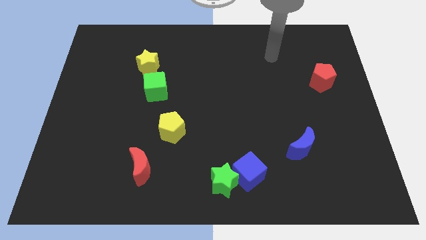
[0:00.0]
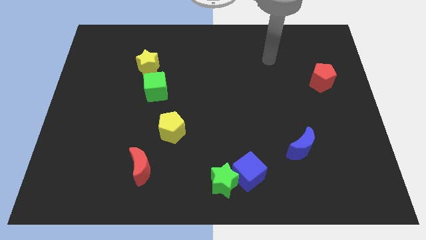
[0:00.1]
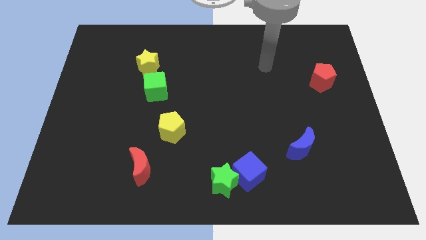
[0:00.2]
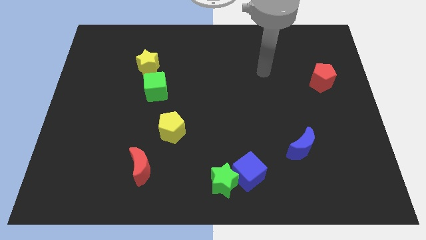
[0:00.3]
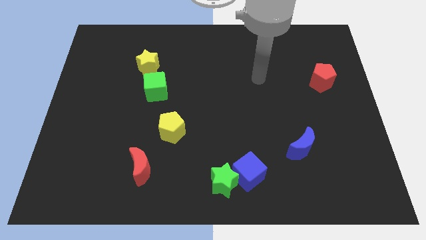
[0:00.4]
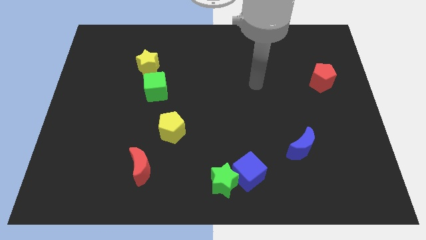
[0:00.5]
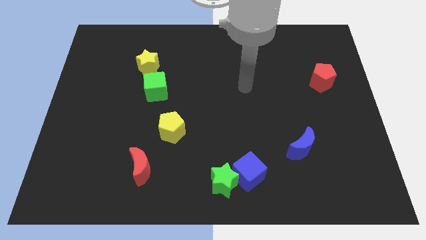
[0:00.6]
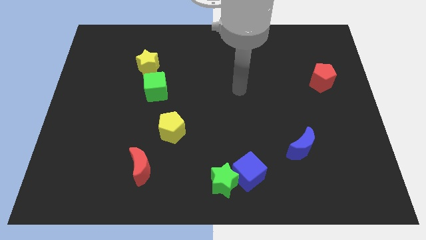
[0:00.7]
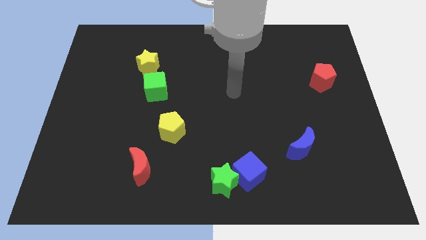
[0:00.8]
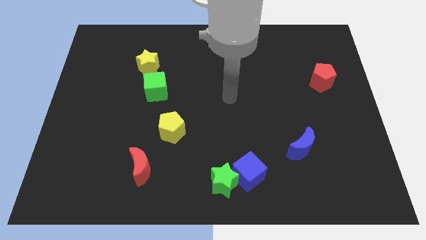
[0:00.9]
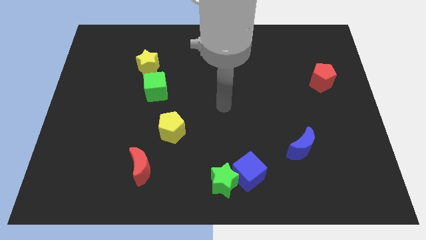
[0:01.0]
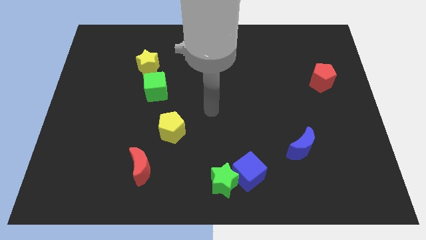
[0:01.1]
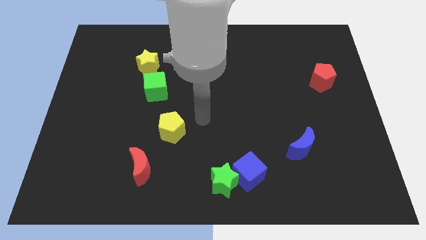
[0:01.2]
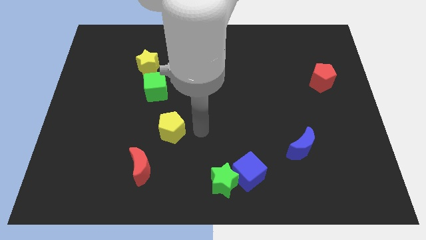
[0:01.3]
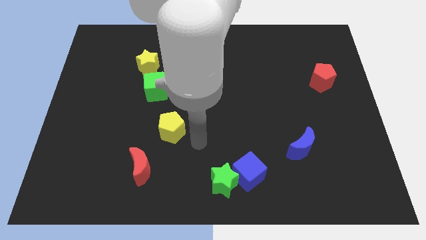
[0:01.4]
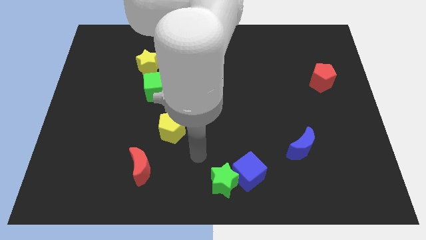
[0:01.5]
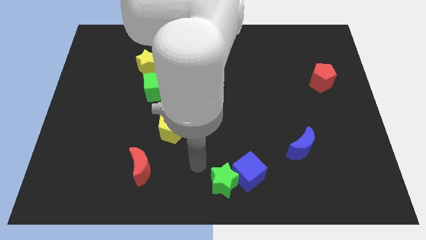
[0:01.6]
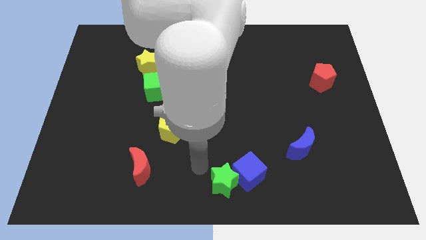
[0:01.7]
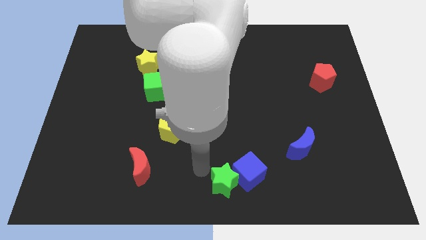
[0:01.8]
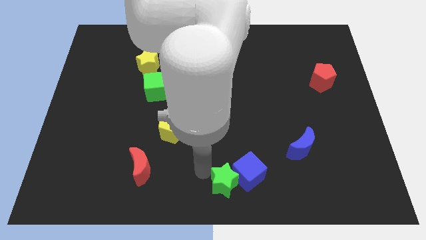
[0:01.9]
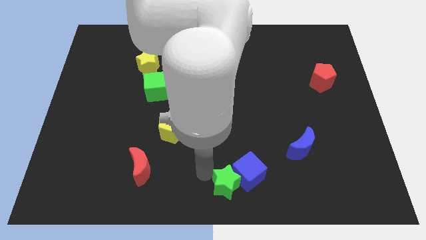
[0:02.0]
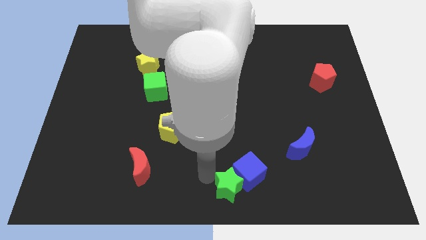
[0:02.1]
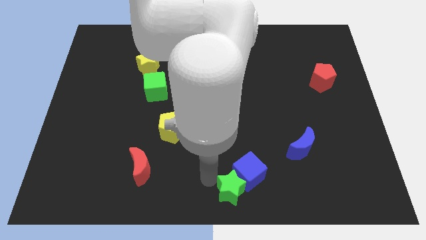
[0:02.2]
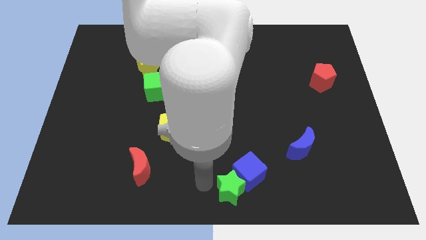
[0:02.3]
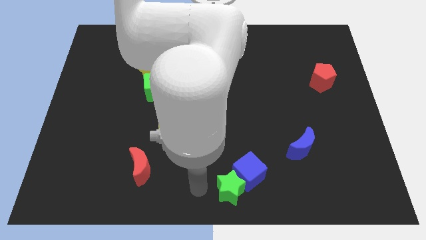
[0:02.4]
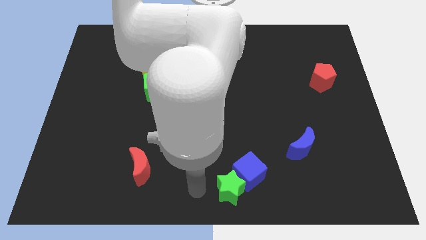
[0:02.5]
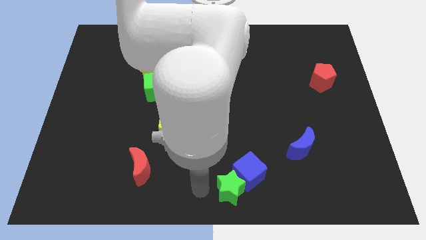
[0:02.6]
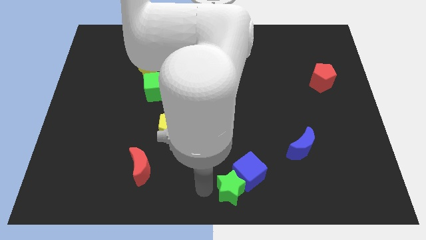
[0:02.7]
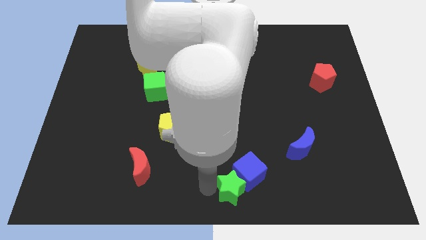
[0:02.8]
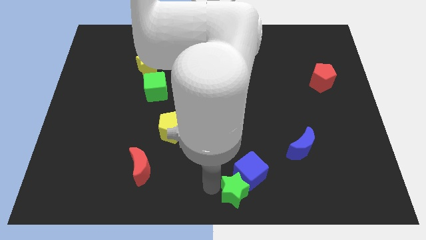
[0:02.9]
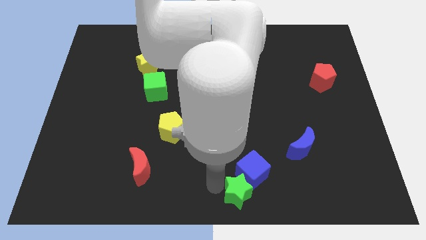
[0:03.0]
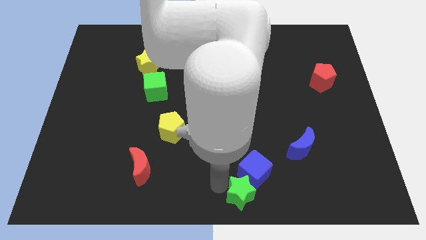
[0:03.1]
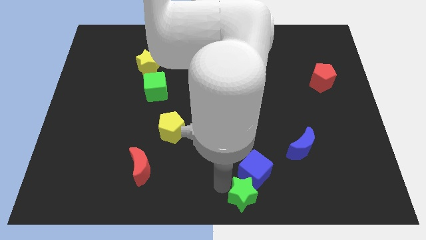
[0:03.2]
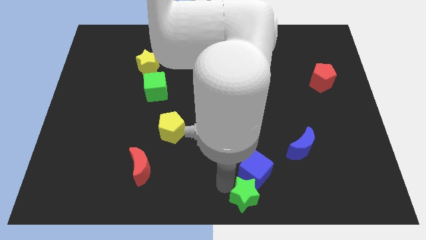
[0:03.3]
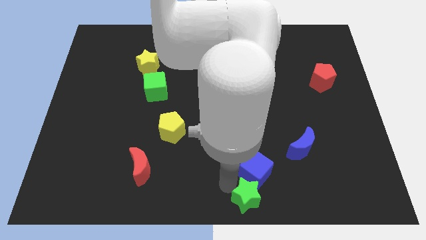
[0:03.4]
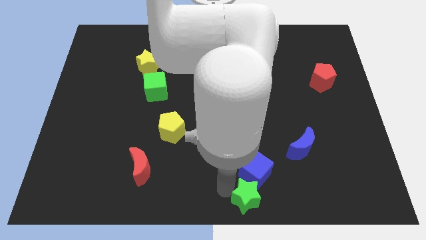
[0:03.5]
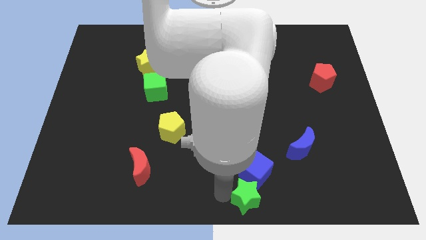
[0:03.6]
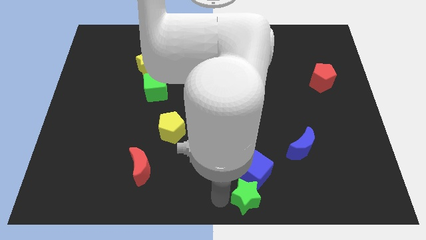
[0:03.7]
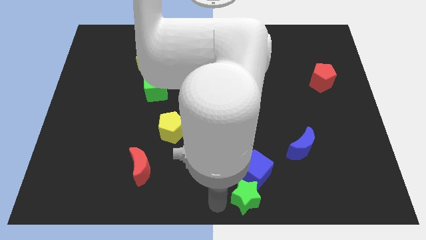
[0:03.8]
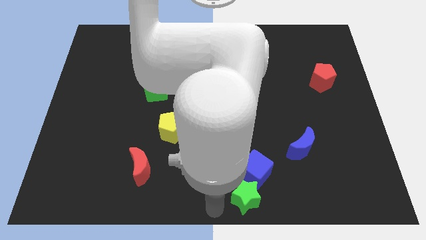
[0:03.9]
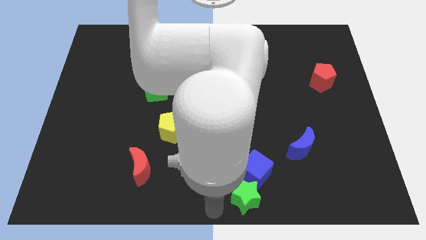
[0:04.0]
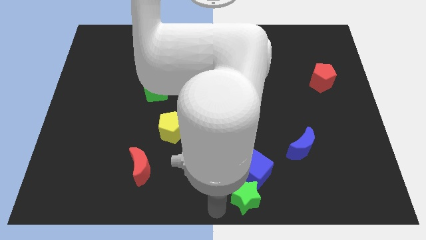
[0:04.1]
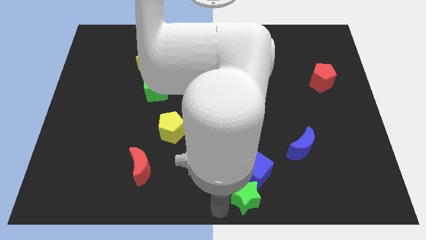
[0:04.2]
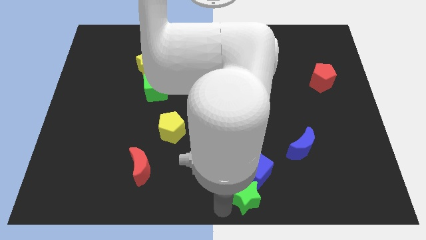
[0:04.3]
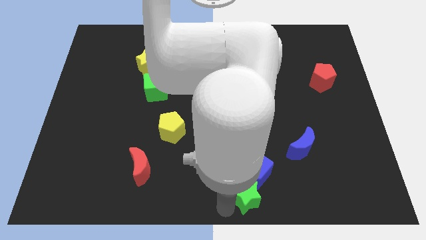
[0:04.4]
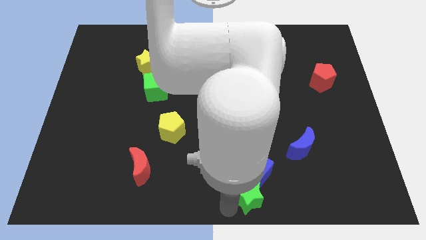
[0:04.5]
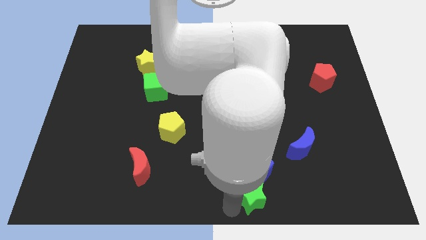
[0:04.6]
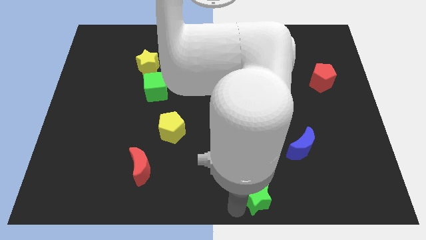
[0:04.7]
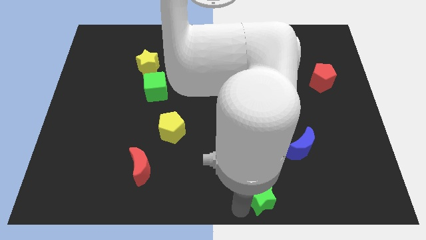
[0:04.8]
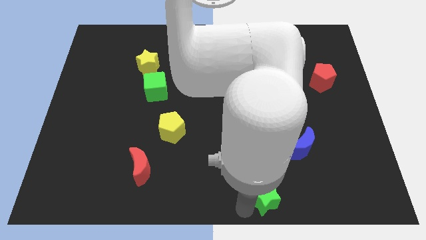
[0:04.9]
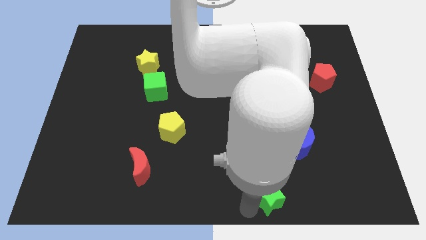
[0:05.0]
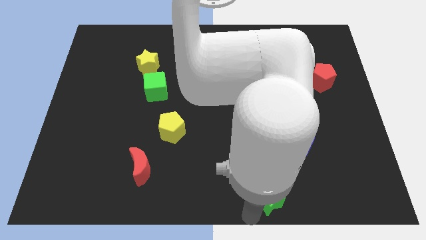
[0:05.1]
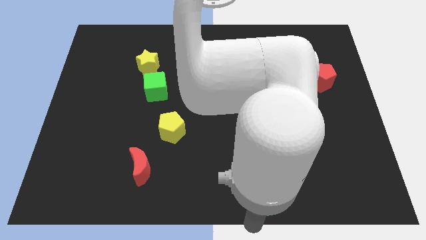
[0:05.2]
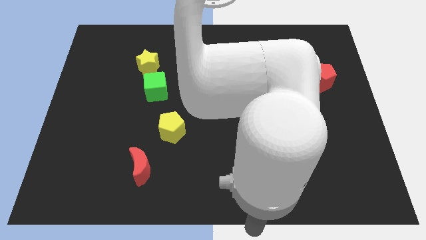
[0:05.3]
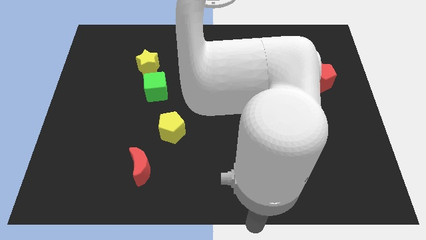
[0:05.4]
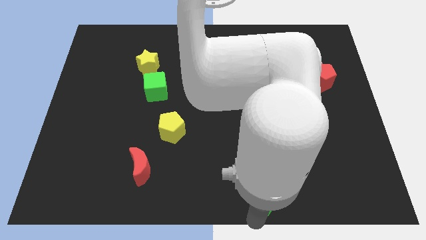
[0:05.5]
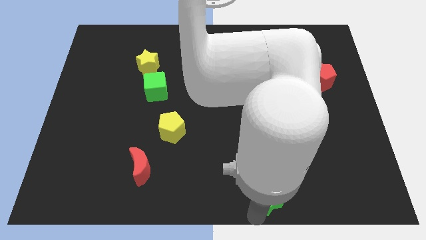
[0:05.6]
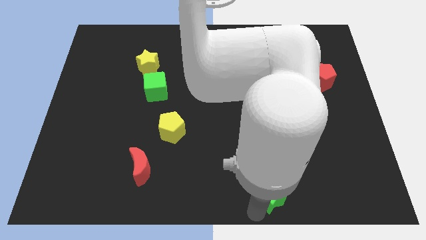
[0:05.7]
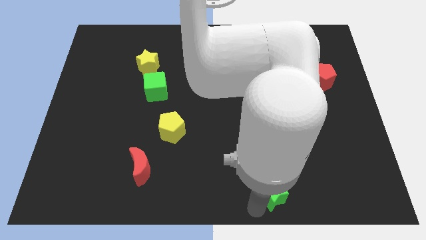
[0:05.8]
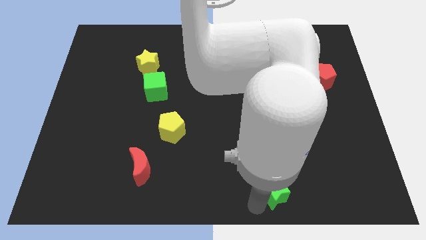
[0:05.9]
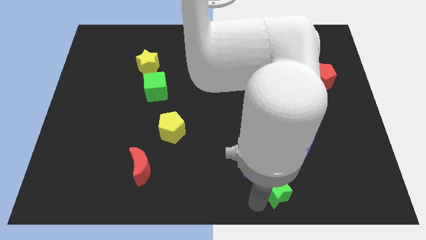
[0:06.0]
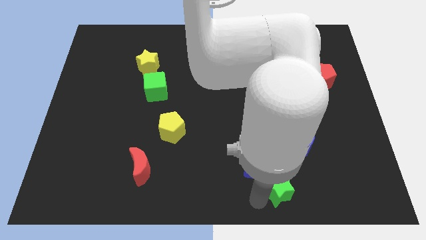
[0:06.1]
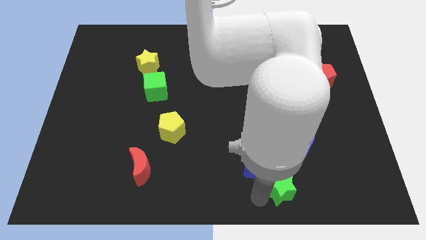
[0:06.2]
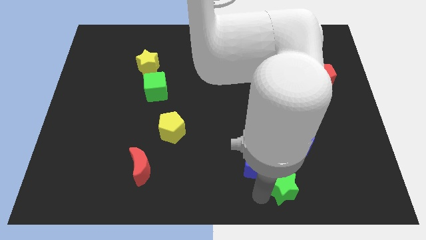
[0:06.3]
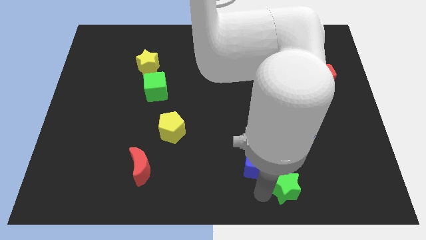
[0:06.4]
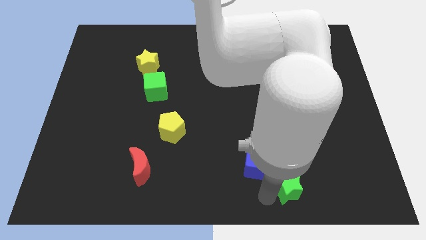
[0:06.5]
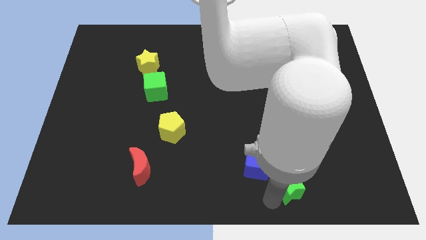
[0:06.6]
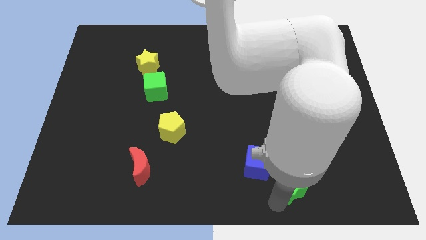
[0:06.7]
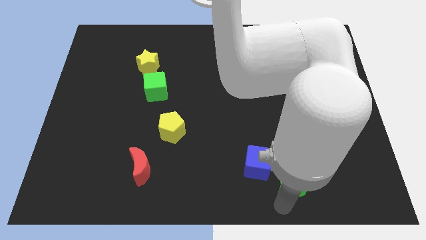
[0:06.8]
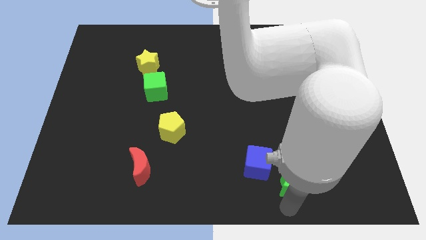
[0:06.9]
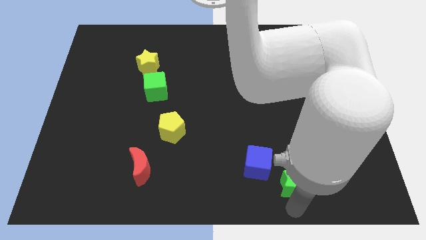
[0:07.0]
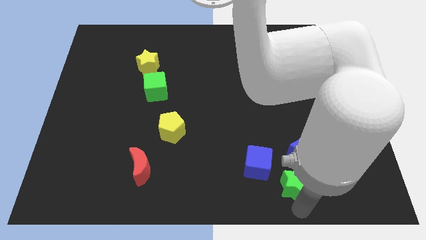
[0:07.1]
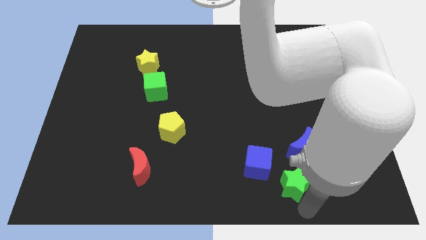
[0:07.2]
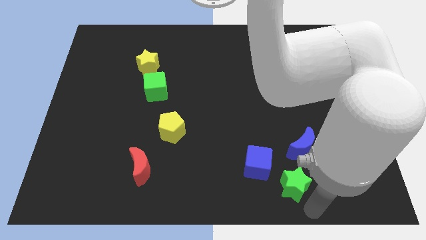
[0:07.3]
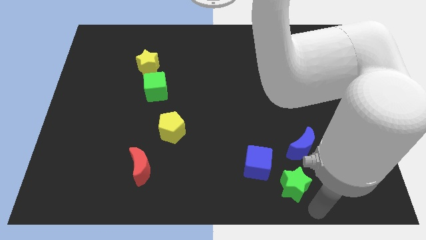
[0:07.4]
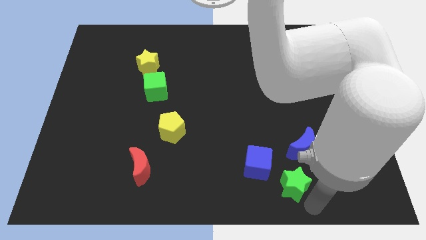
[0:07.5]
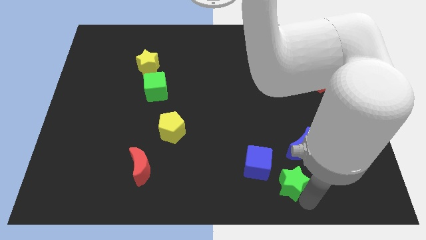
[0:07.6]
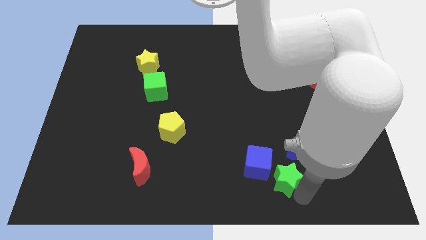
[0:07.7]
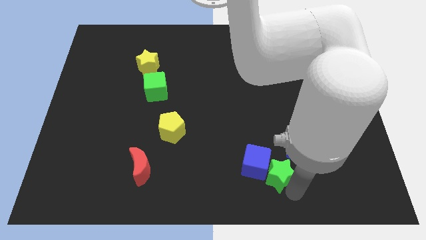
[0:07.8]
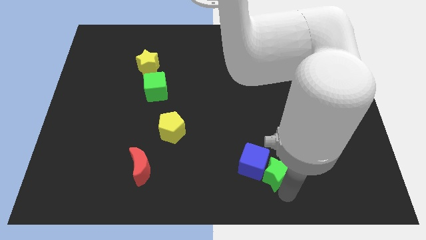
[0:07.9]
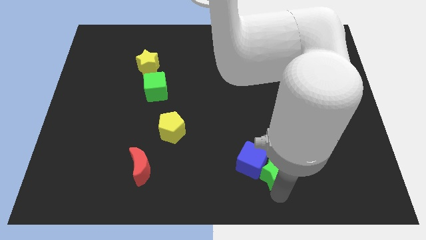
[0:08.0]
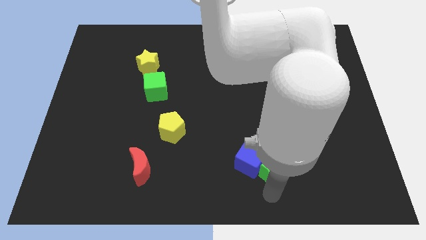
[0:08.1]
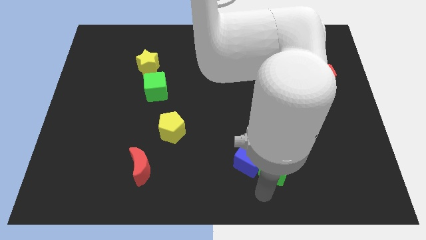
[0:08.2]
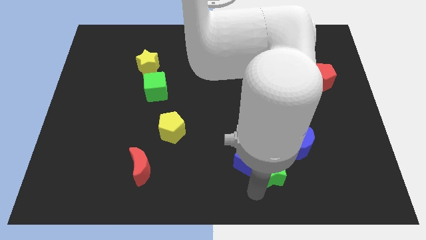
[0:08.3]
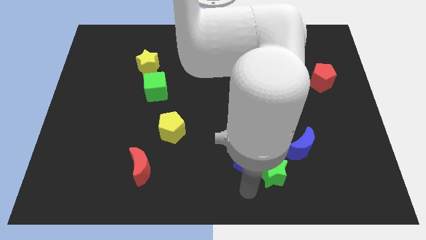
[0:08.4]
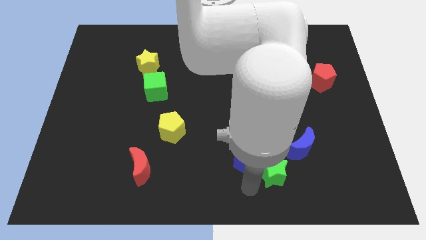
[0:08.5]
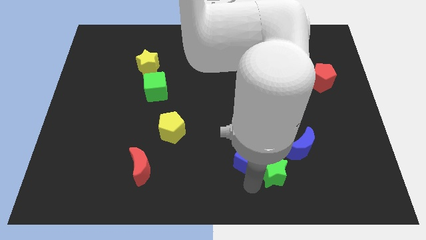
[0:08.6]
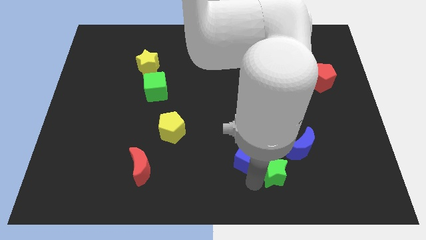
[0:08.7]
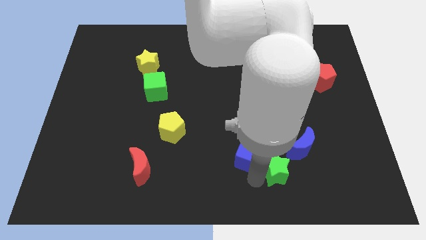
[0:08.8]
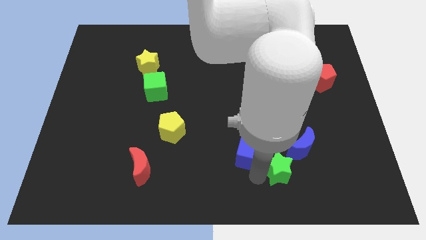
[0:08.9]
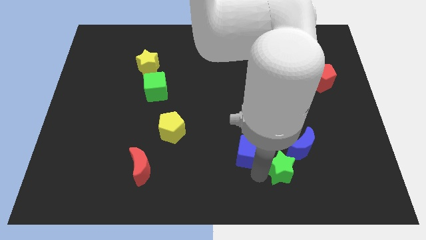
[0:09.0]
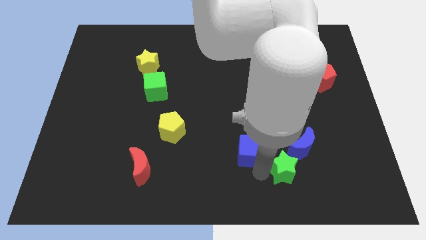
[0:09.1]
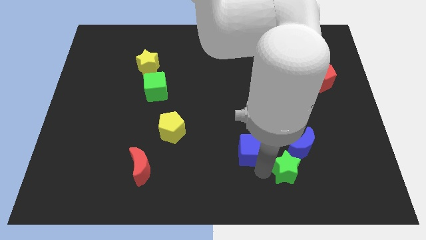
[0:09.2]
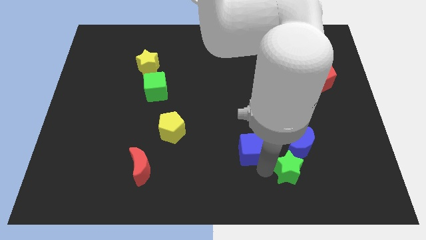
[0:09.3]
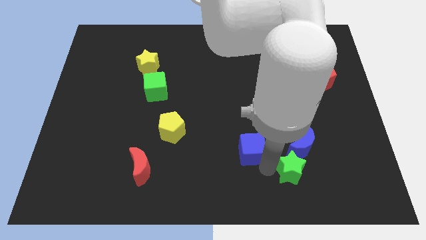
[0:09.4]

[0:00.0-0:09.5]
slide the green star next to the blue moon
